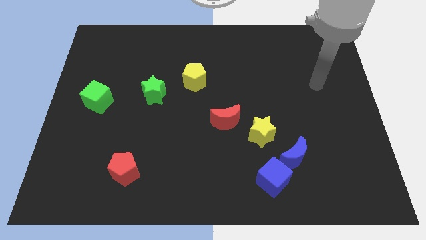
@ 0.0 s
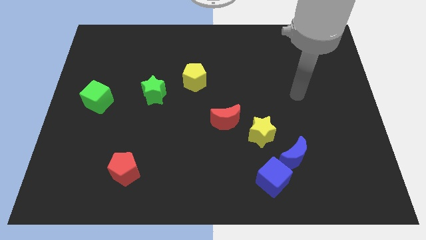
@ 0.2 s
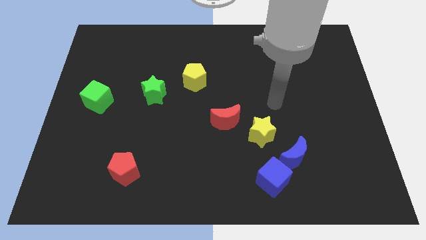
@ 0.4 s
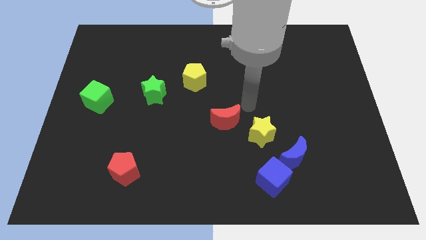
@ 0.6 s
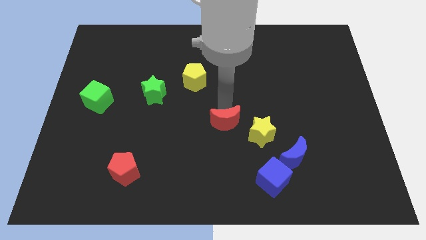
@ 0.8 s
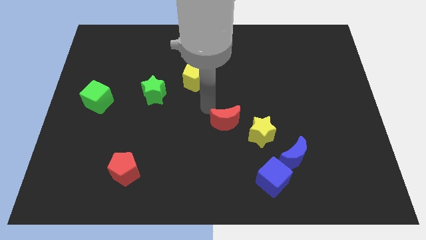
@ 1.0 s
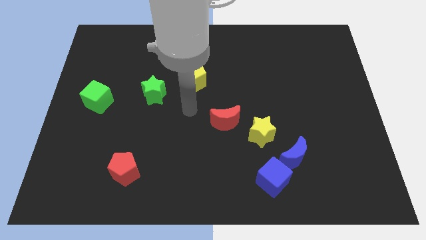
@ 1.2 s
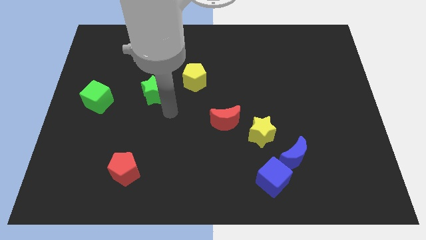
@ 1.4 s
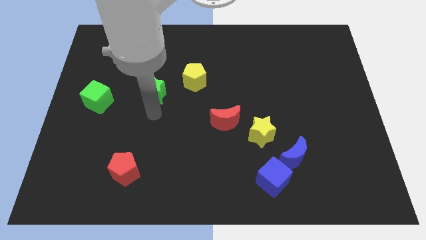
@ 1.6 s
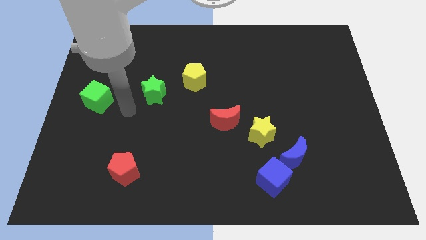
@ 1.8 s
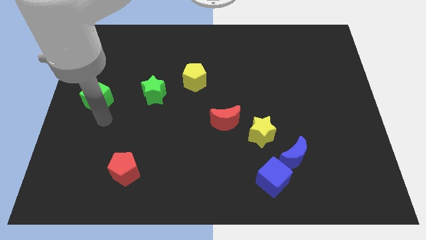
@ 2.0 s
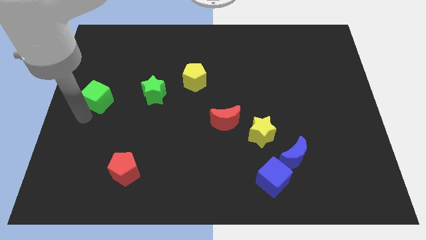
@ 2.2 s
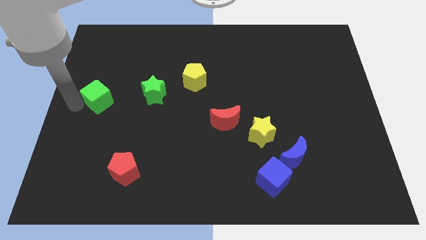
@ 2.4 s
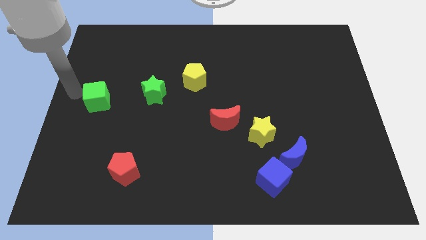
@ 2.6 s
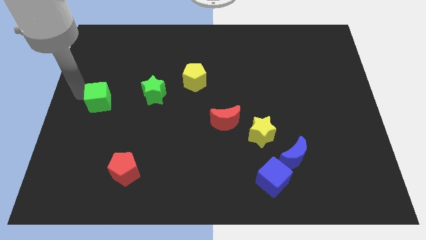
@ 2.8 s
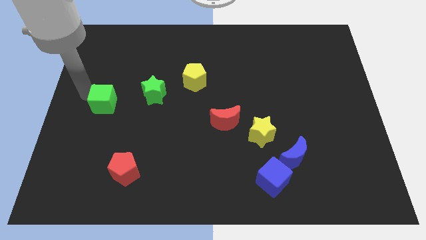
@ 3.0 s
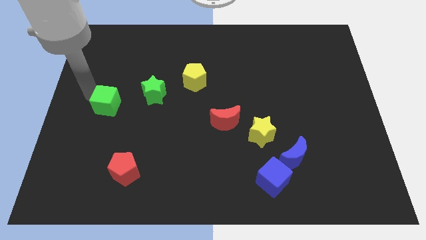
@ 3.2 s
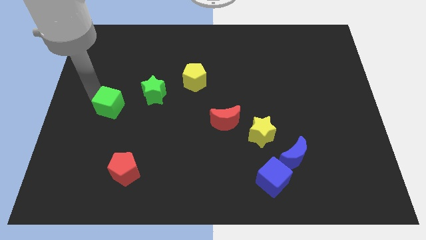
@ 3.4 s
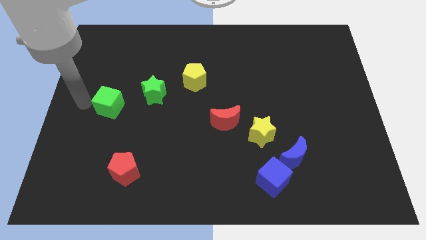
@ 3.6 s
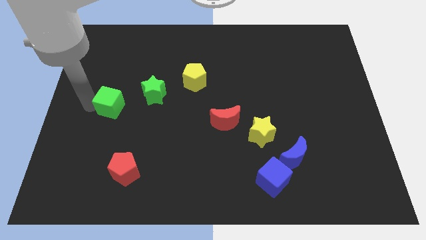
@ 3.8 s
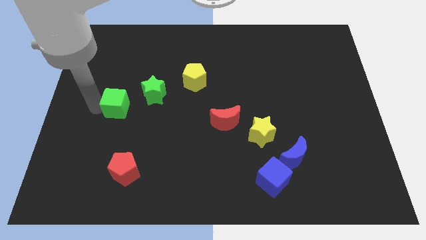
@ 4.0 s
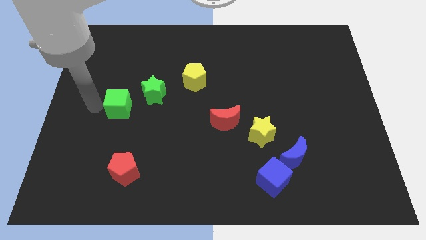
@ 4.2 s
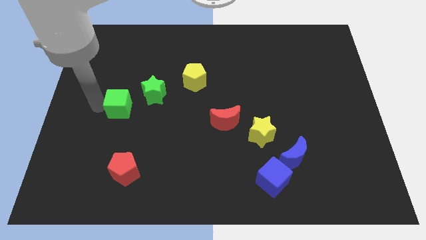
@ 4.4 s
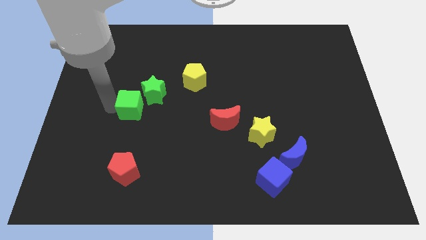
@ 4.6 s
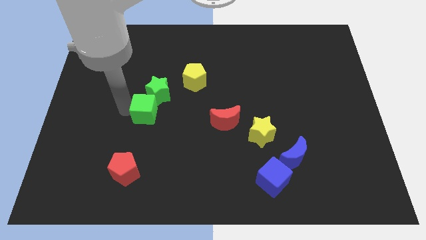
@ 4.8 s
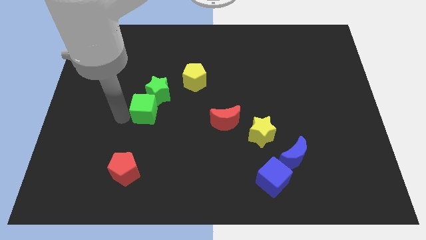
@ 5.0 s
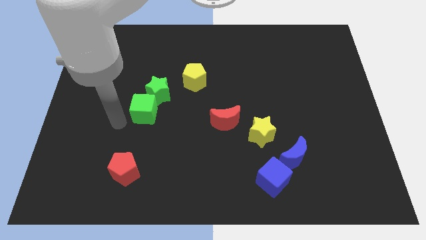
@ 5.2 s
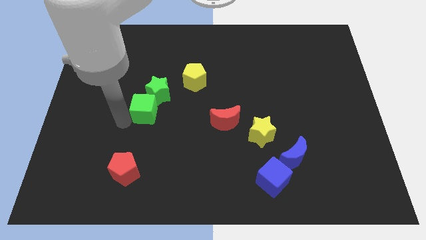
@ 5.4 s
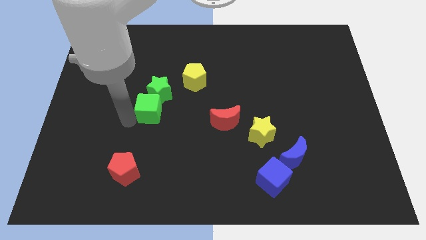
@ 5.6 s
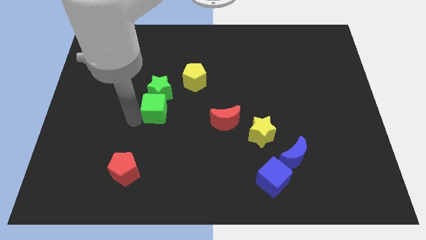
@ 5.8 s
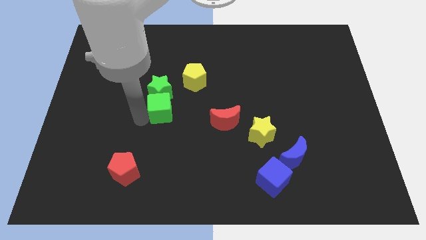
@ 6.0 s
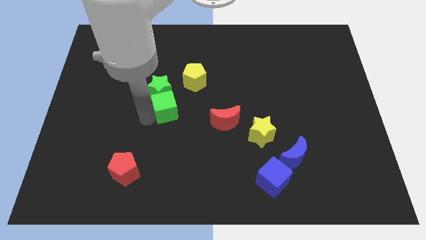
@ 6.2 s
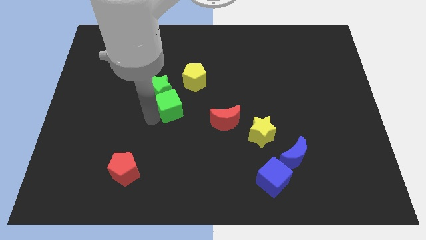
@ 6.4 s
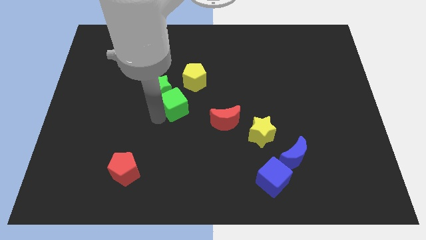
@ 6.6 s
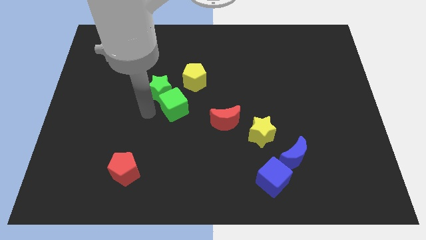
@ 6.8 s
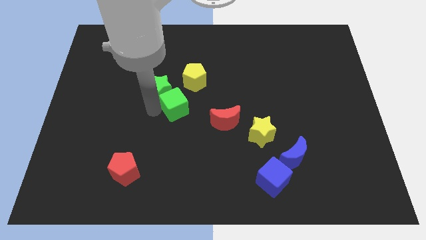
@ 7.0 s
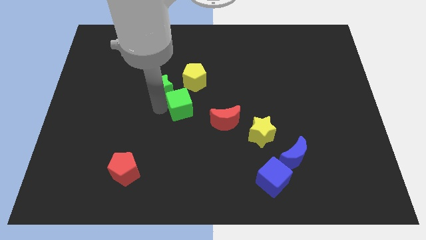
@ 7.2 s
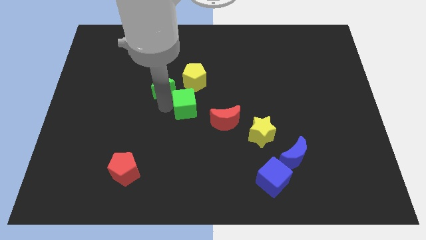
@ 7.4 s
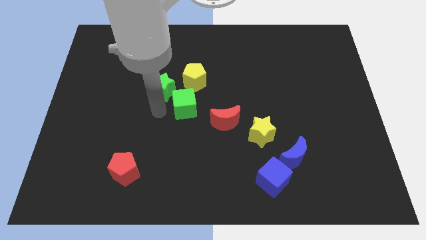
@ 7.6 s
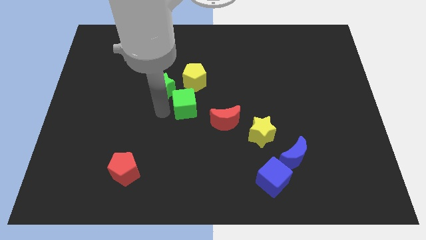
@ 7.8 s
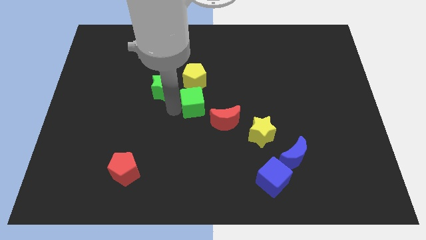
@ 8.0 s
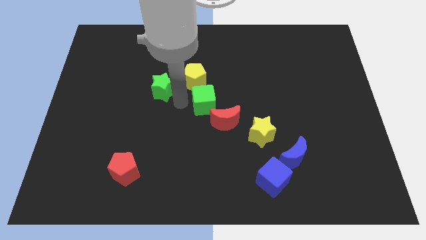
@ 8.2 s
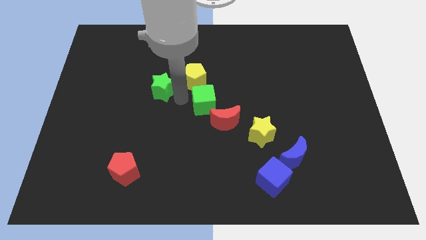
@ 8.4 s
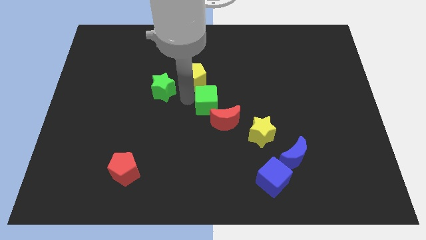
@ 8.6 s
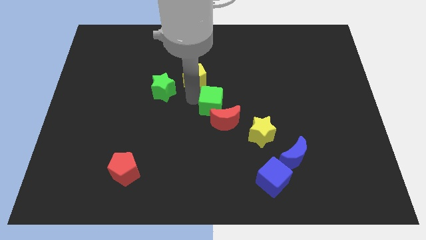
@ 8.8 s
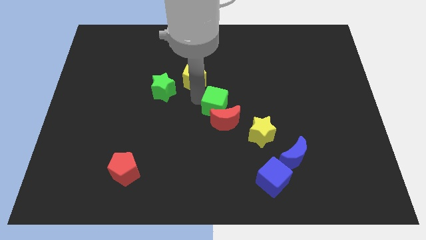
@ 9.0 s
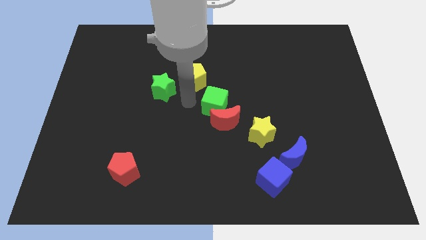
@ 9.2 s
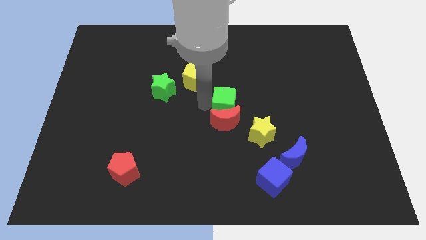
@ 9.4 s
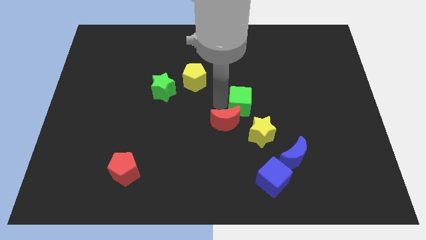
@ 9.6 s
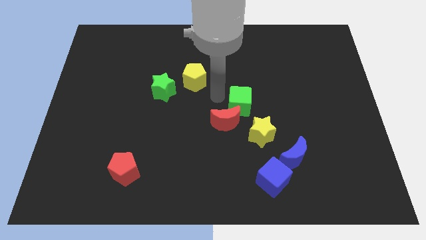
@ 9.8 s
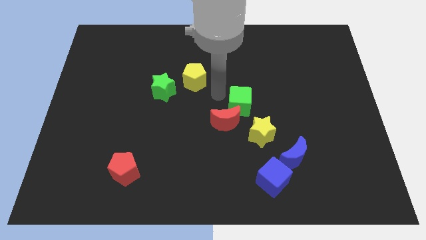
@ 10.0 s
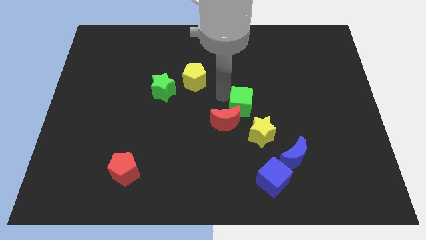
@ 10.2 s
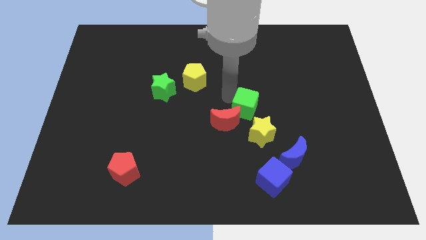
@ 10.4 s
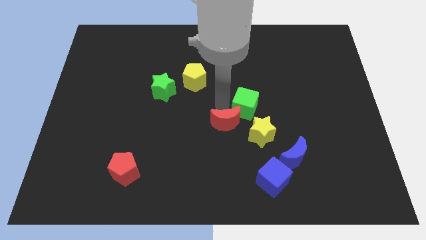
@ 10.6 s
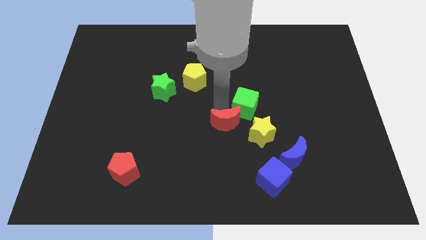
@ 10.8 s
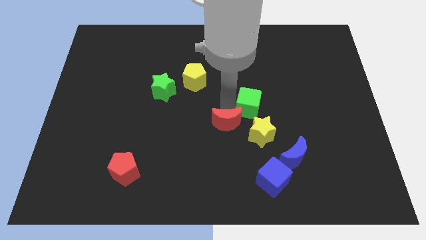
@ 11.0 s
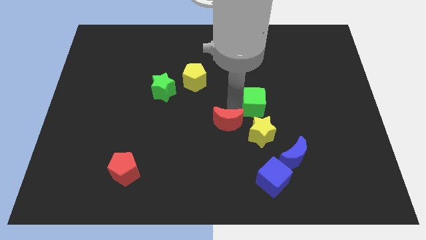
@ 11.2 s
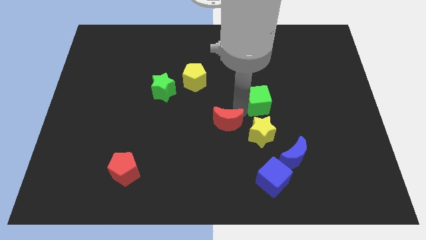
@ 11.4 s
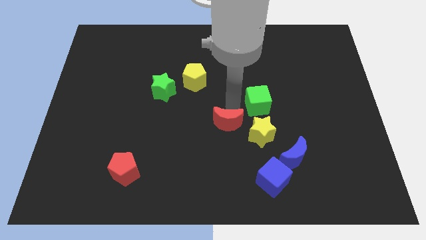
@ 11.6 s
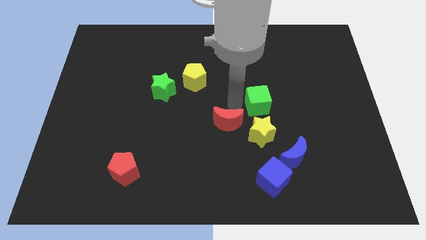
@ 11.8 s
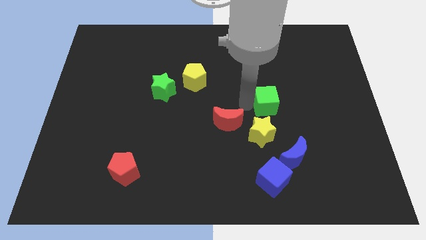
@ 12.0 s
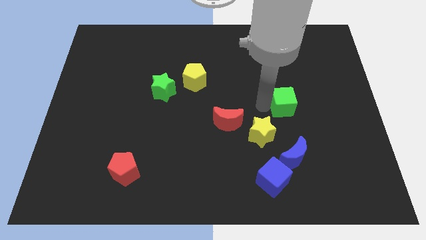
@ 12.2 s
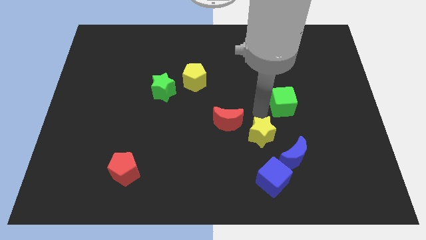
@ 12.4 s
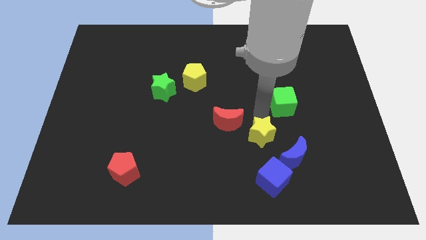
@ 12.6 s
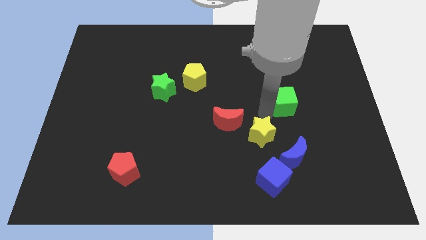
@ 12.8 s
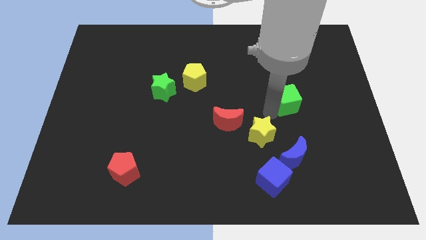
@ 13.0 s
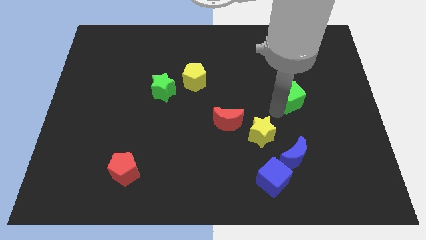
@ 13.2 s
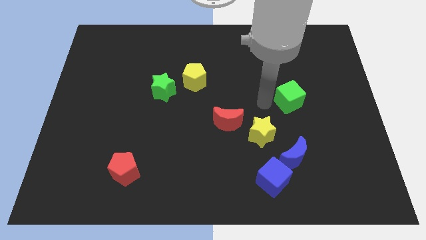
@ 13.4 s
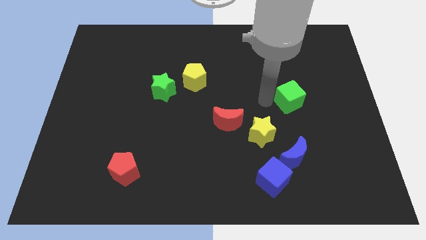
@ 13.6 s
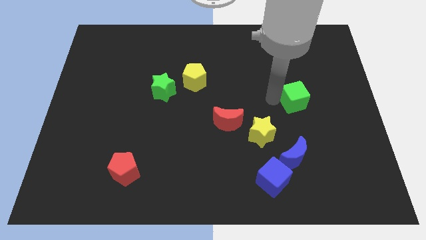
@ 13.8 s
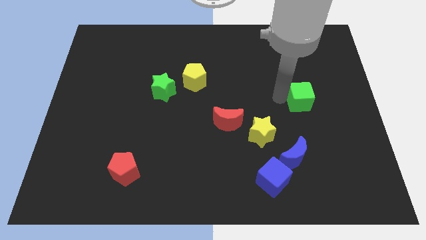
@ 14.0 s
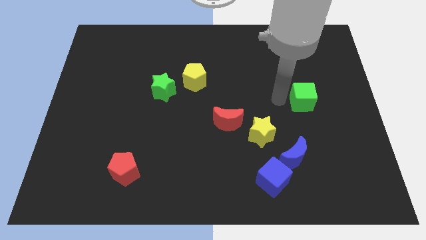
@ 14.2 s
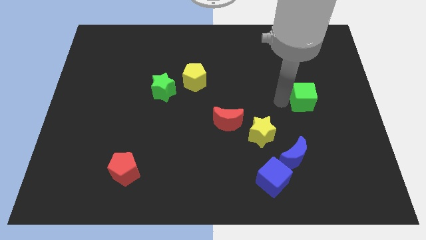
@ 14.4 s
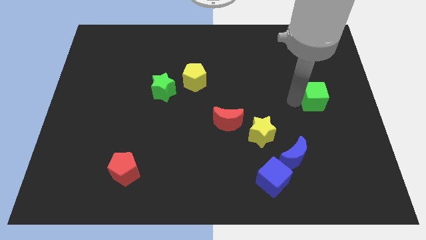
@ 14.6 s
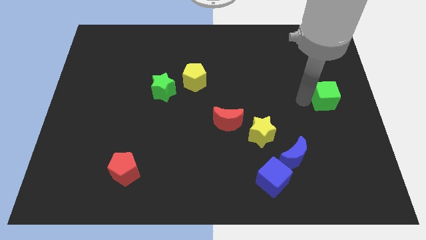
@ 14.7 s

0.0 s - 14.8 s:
push the green cube to the center right
